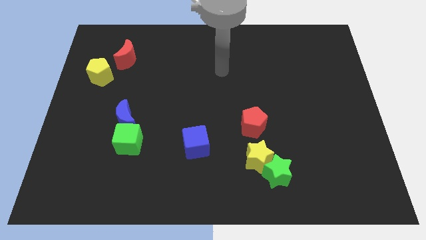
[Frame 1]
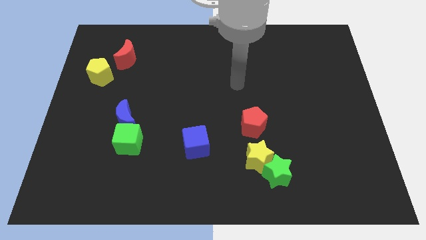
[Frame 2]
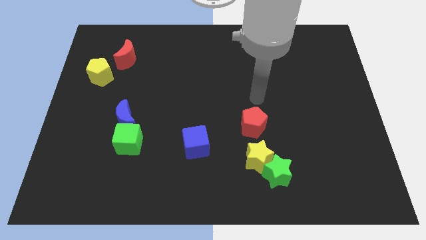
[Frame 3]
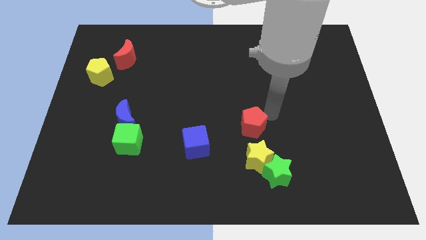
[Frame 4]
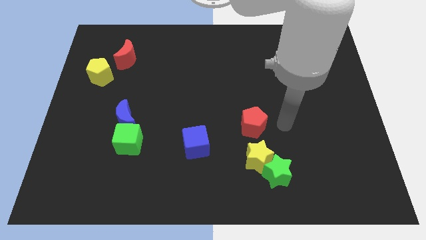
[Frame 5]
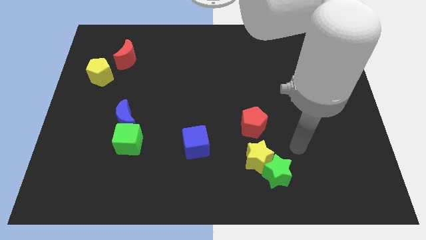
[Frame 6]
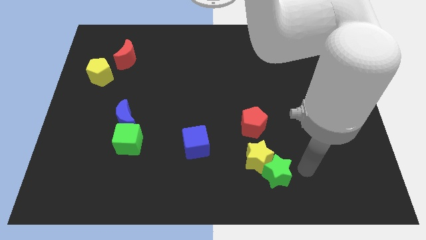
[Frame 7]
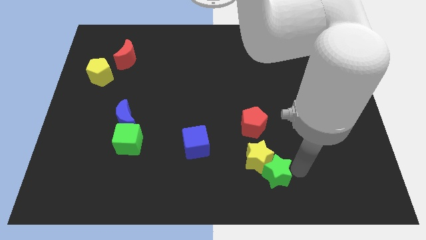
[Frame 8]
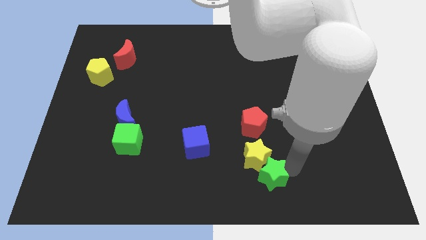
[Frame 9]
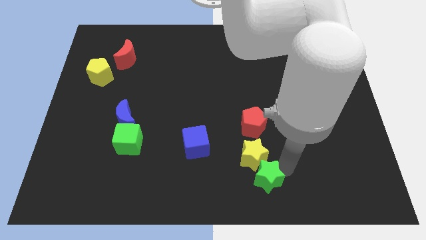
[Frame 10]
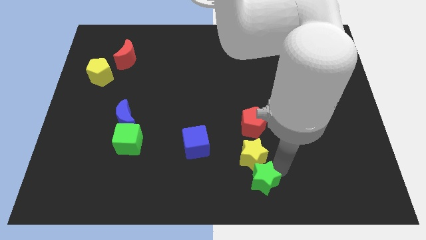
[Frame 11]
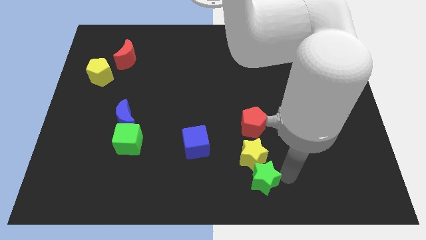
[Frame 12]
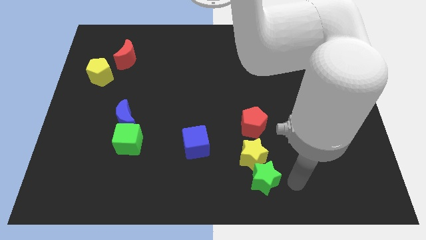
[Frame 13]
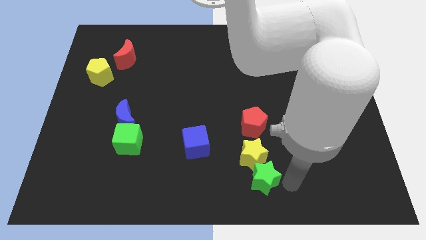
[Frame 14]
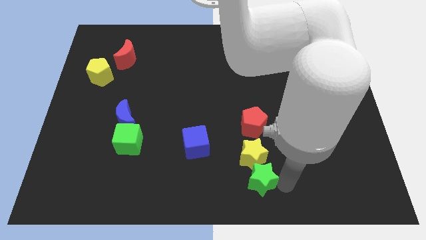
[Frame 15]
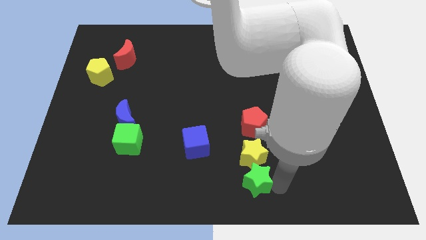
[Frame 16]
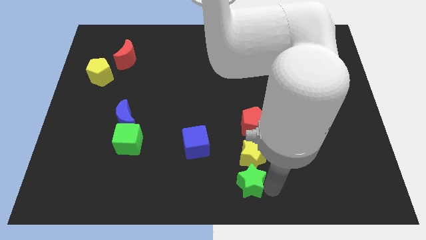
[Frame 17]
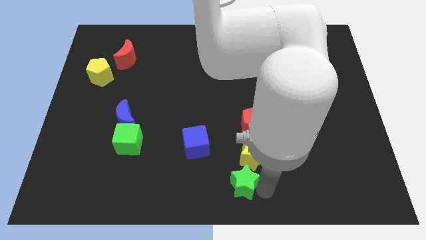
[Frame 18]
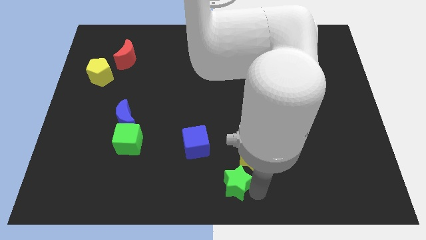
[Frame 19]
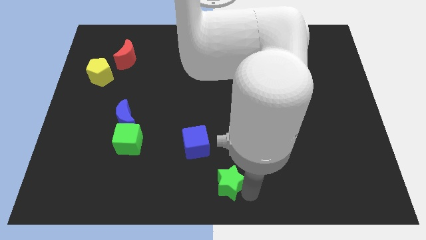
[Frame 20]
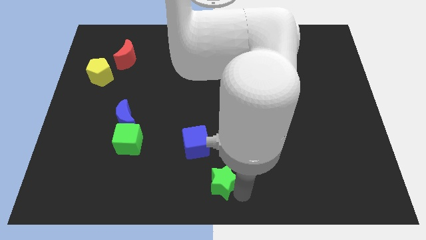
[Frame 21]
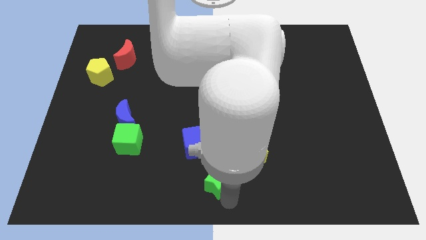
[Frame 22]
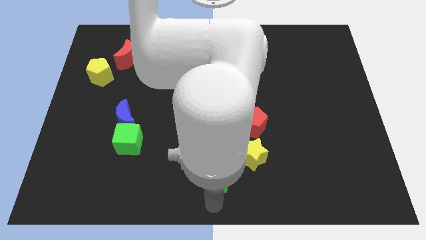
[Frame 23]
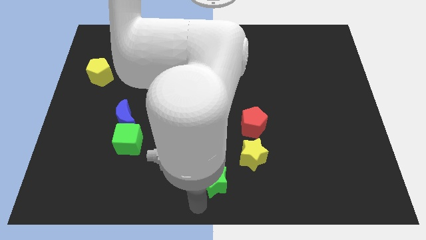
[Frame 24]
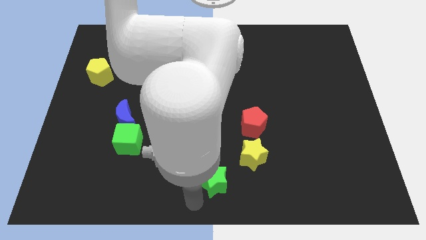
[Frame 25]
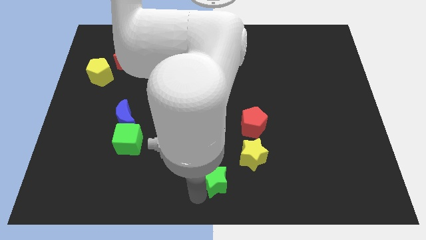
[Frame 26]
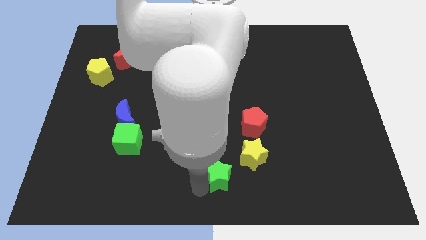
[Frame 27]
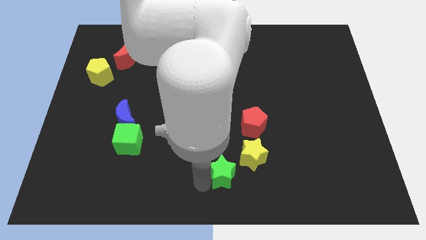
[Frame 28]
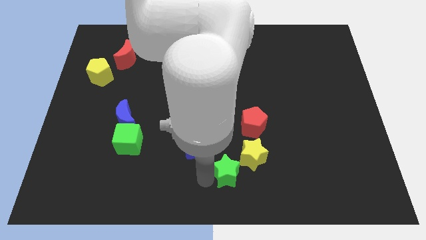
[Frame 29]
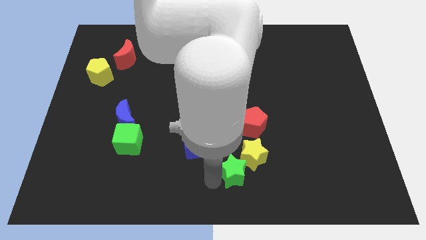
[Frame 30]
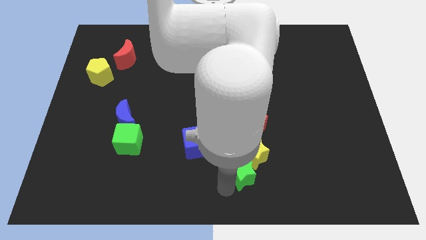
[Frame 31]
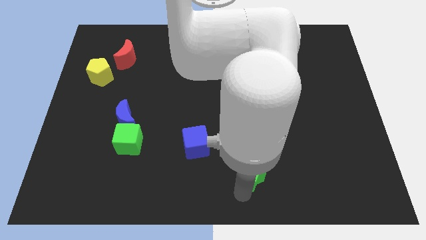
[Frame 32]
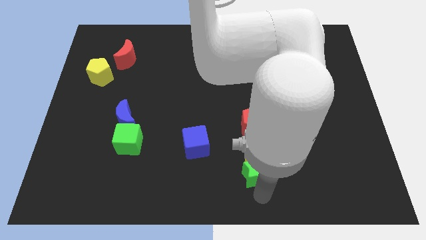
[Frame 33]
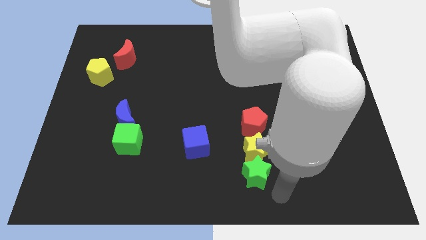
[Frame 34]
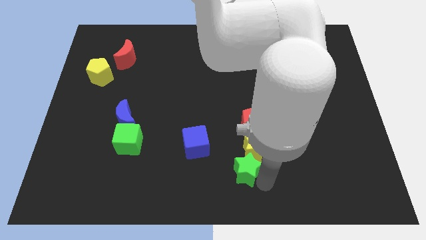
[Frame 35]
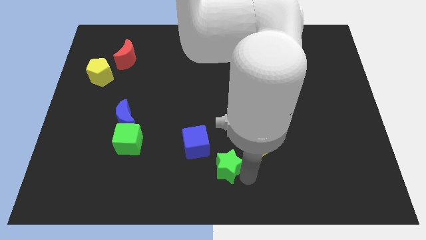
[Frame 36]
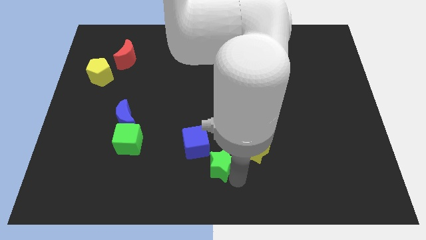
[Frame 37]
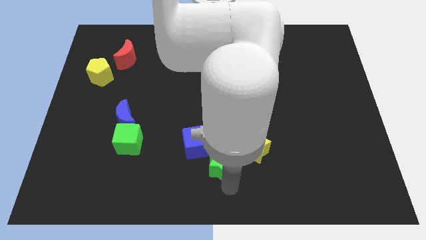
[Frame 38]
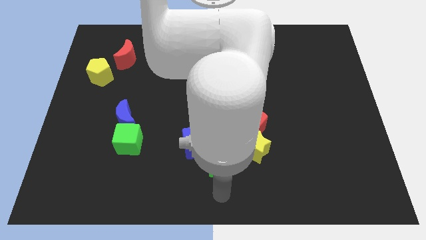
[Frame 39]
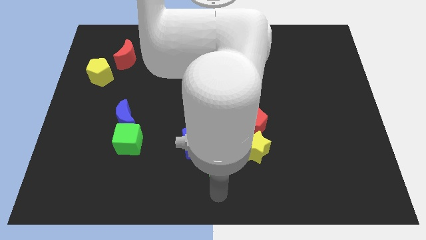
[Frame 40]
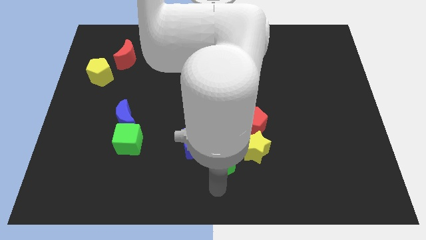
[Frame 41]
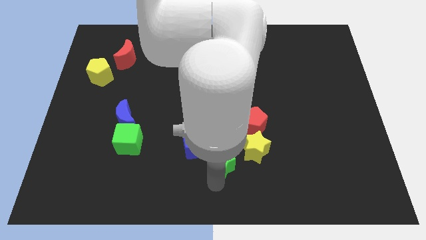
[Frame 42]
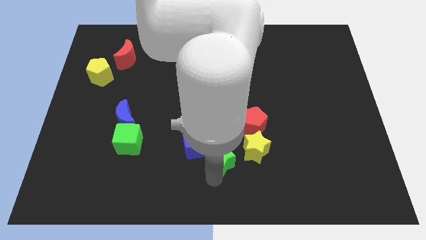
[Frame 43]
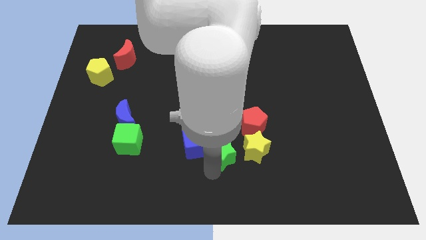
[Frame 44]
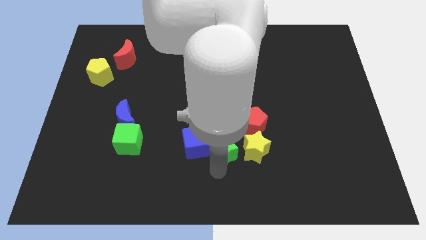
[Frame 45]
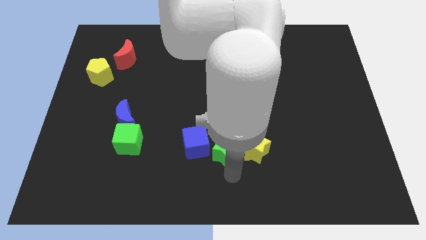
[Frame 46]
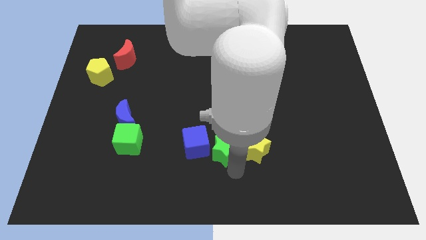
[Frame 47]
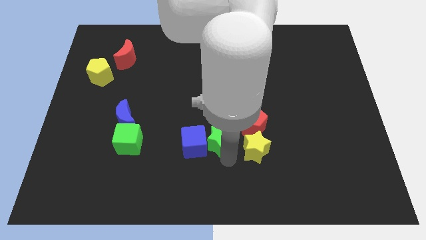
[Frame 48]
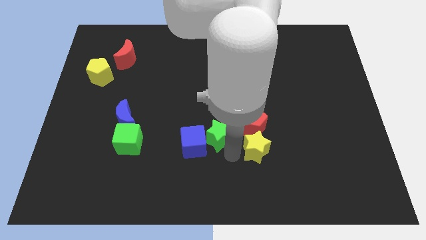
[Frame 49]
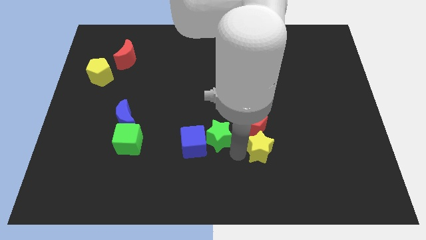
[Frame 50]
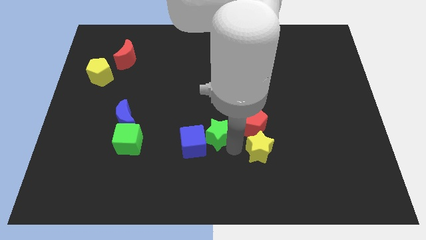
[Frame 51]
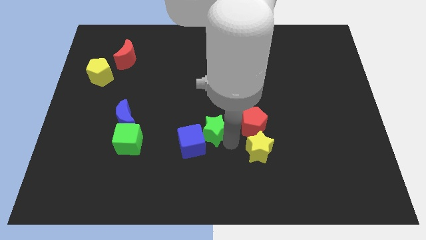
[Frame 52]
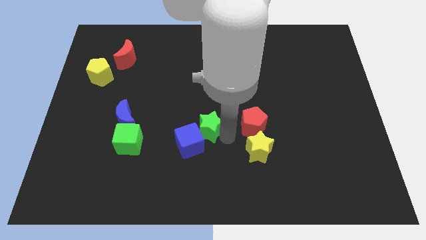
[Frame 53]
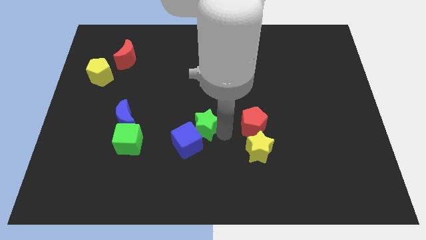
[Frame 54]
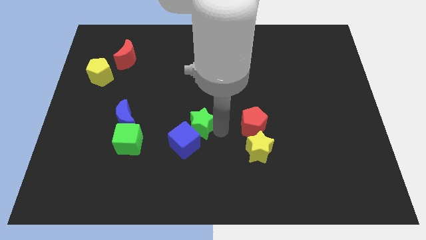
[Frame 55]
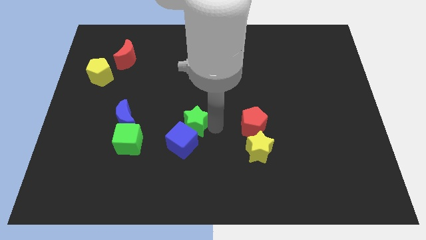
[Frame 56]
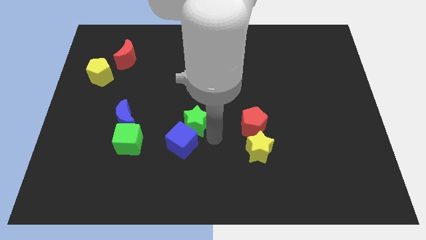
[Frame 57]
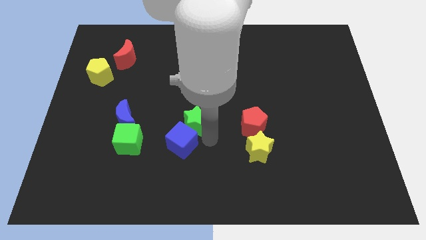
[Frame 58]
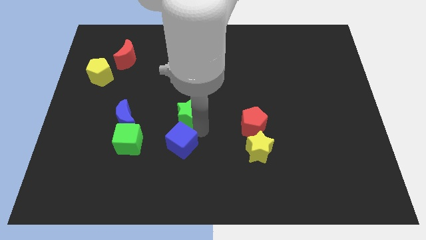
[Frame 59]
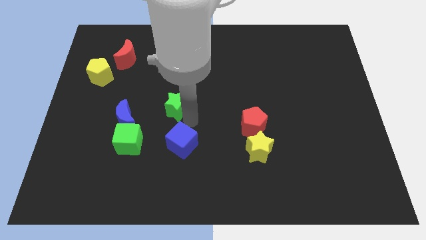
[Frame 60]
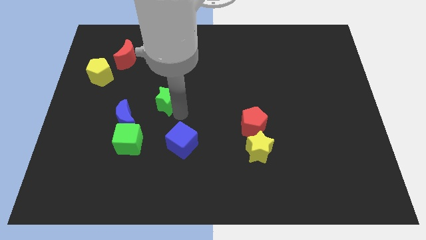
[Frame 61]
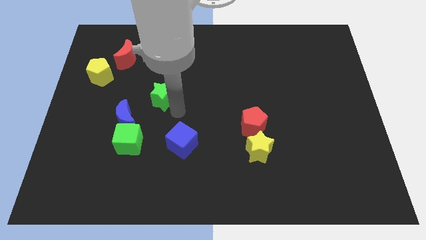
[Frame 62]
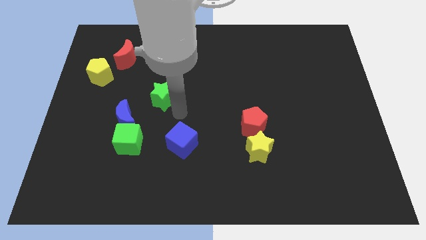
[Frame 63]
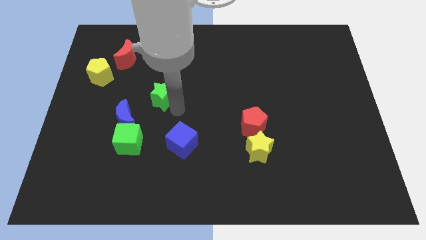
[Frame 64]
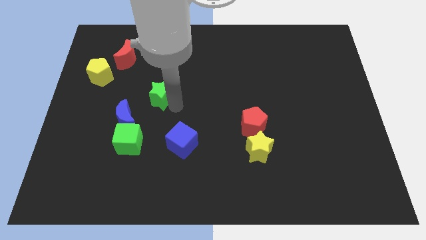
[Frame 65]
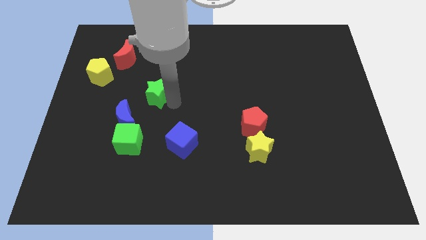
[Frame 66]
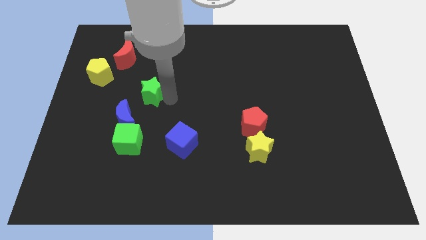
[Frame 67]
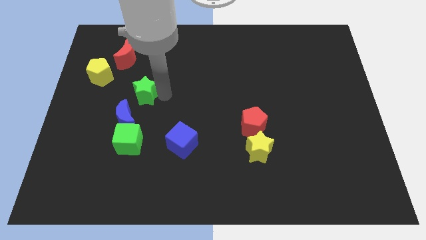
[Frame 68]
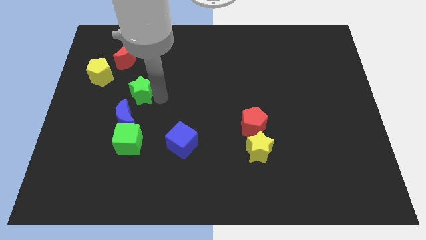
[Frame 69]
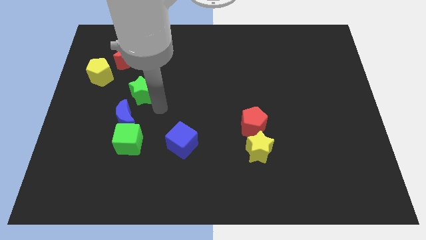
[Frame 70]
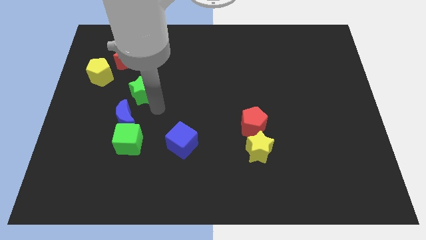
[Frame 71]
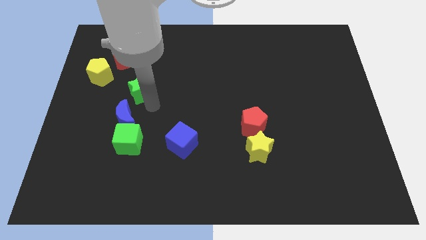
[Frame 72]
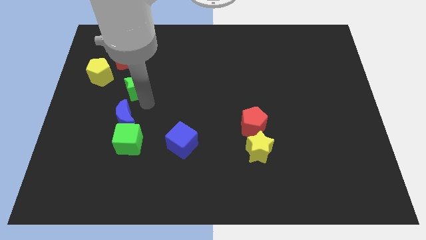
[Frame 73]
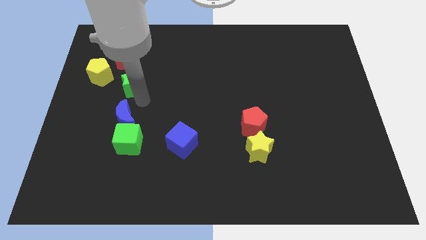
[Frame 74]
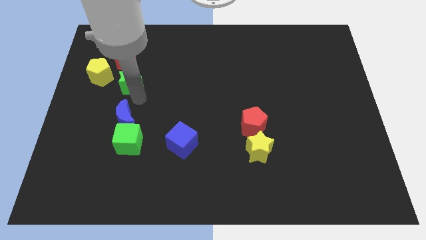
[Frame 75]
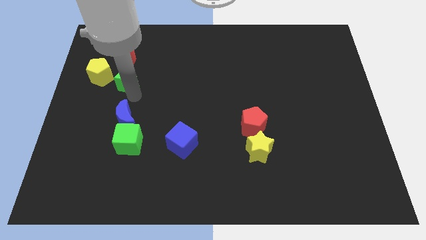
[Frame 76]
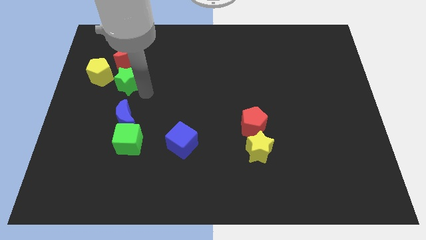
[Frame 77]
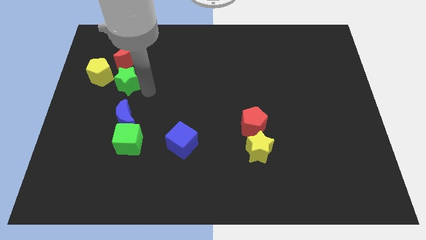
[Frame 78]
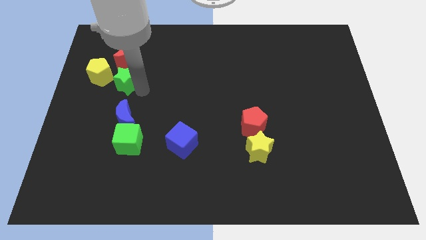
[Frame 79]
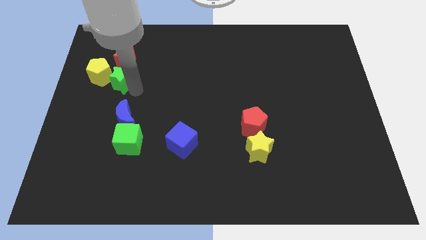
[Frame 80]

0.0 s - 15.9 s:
push the green star towards the yellow pentagon

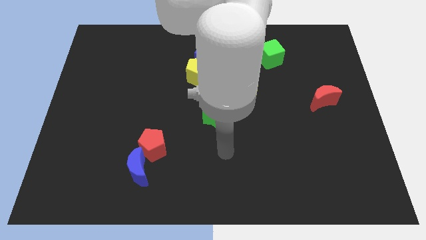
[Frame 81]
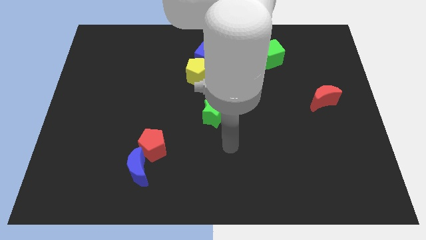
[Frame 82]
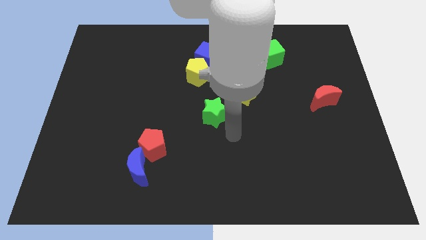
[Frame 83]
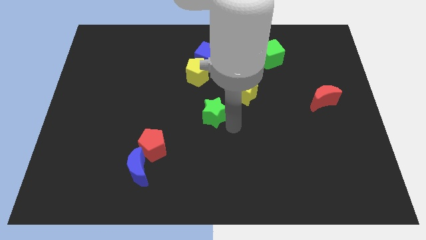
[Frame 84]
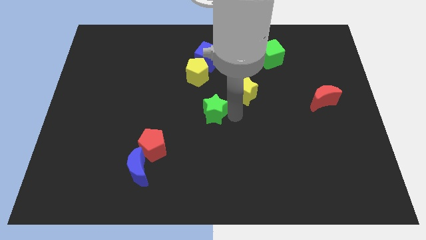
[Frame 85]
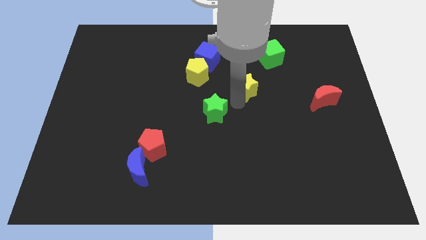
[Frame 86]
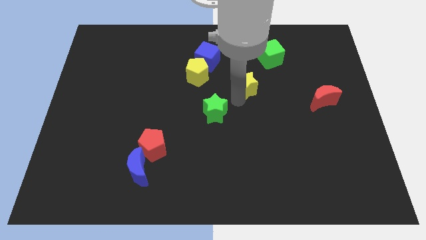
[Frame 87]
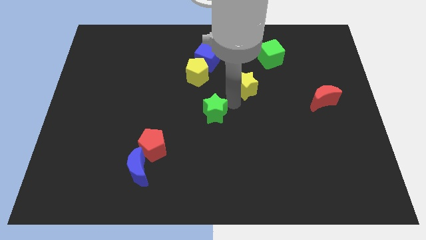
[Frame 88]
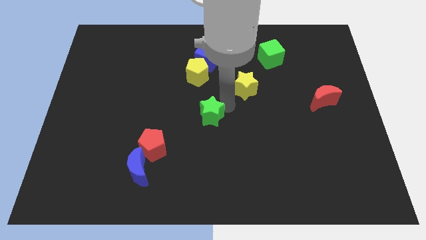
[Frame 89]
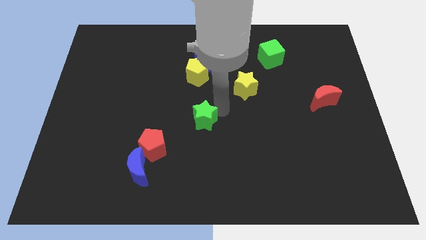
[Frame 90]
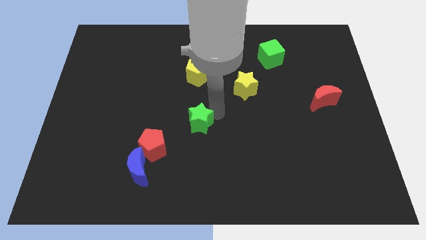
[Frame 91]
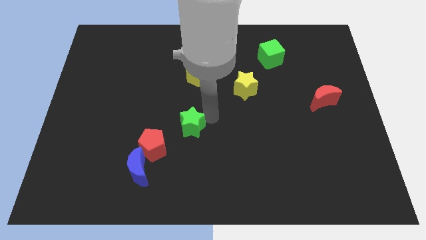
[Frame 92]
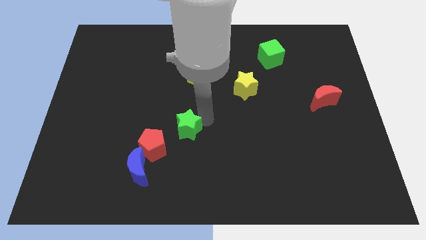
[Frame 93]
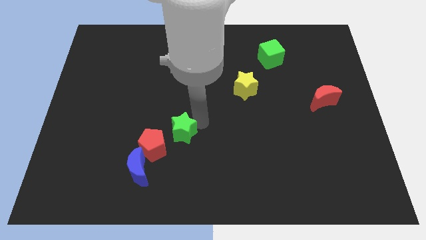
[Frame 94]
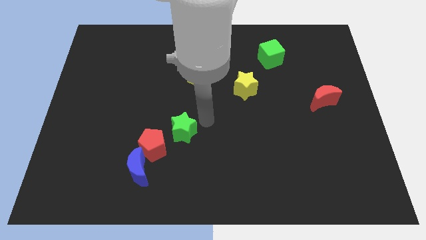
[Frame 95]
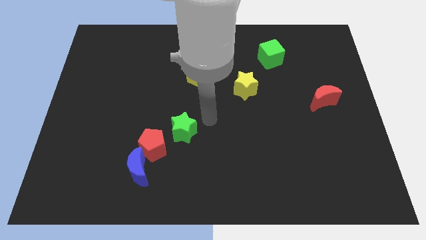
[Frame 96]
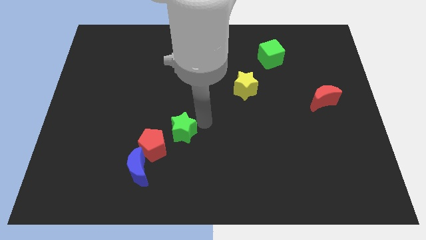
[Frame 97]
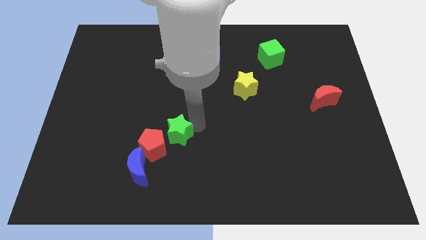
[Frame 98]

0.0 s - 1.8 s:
put the green star close to the red pentagon
